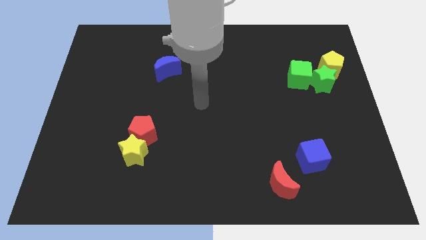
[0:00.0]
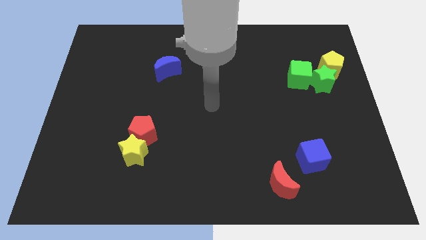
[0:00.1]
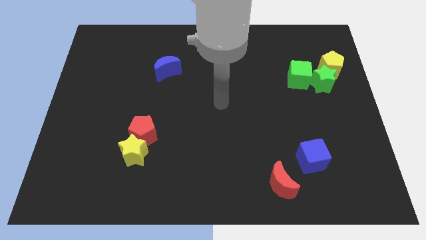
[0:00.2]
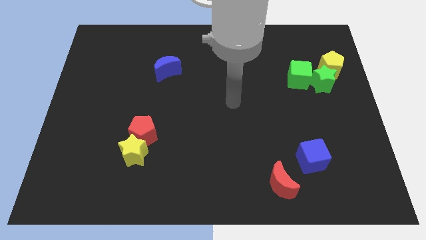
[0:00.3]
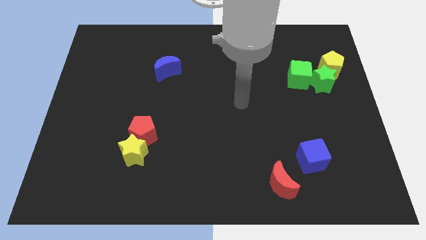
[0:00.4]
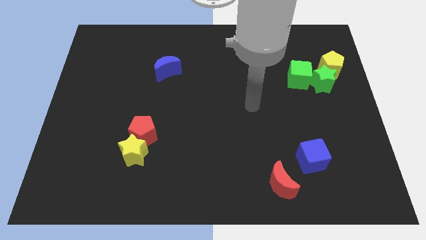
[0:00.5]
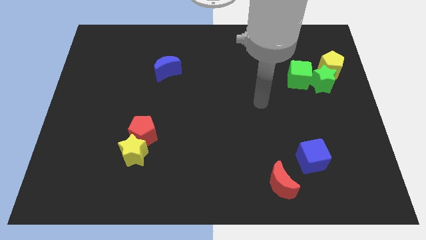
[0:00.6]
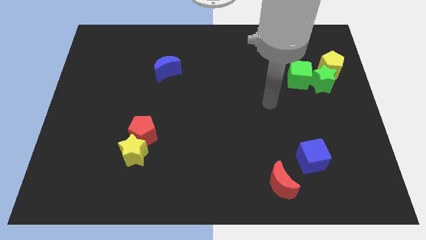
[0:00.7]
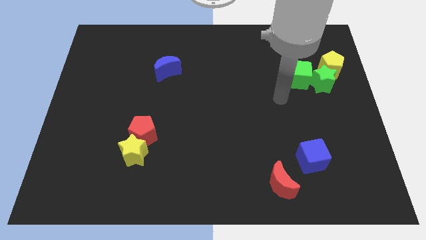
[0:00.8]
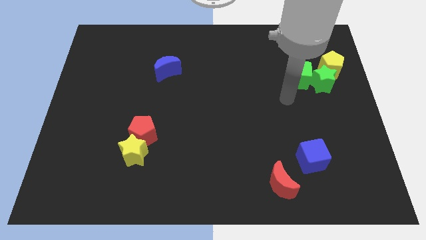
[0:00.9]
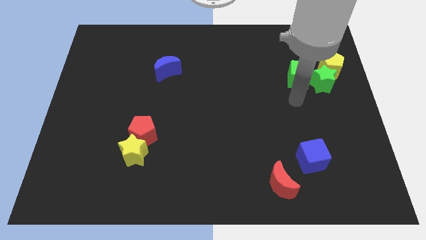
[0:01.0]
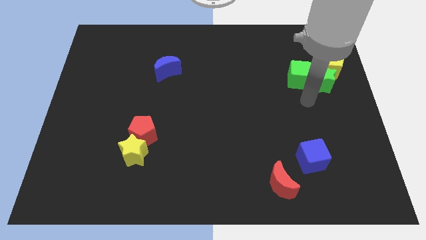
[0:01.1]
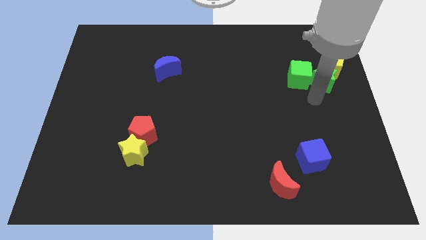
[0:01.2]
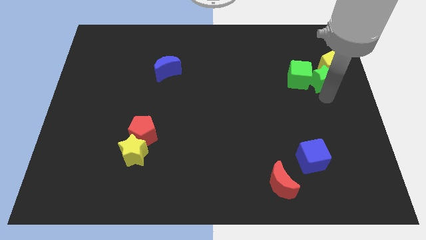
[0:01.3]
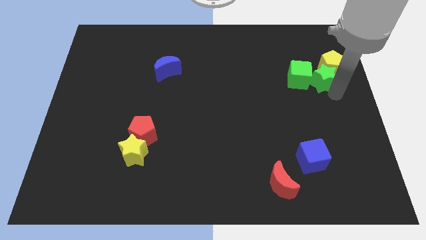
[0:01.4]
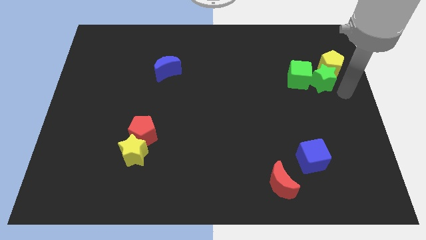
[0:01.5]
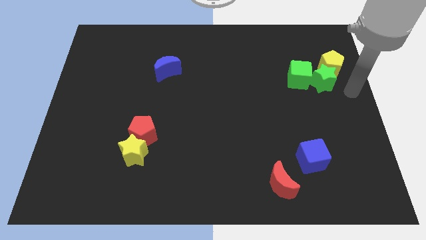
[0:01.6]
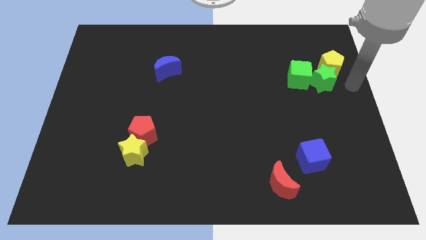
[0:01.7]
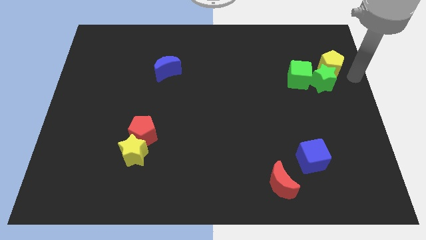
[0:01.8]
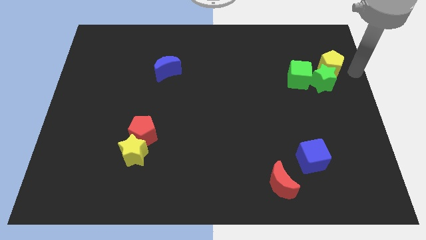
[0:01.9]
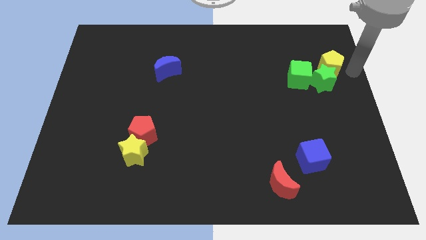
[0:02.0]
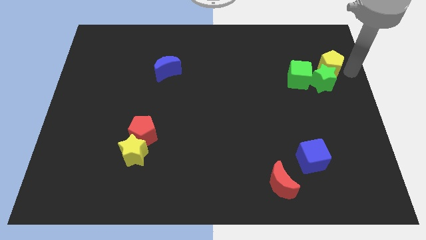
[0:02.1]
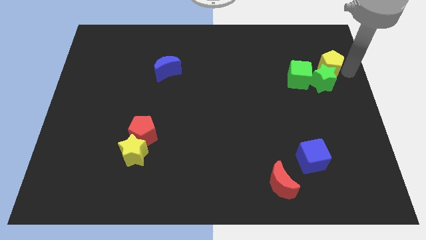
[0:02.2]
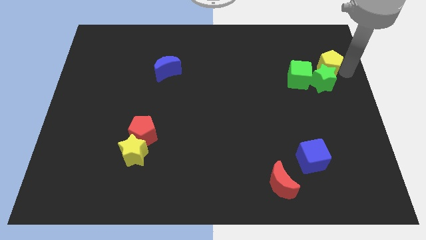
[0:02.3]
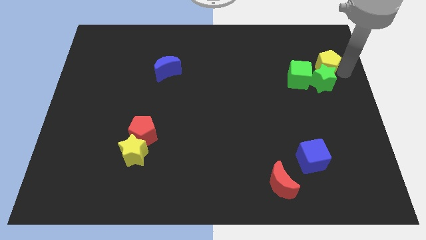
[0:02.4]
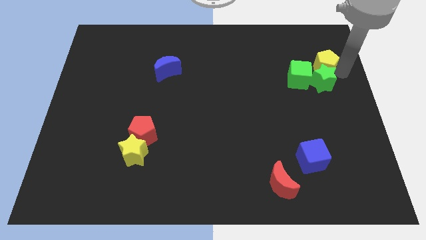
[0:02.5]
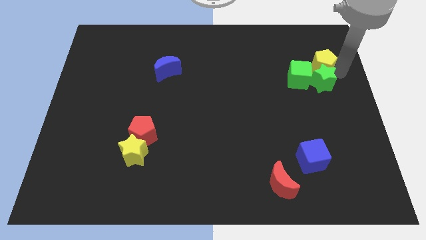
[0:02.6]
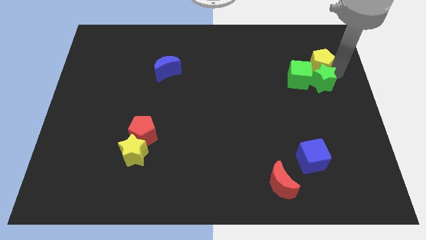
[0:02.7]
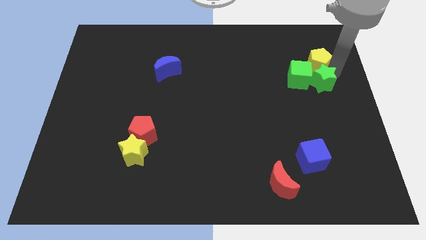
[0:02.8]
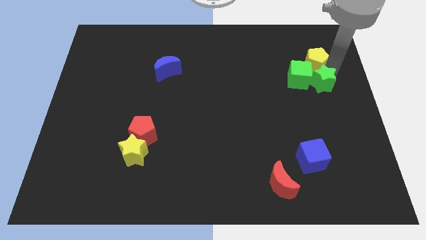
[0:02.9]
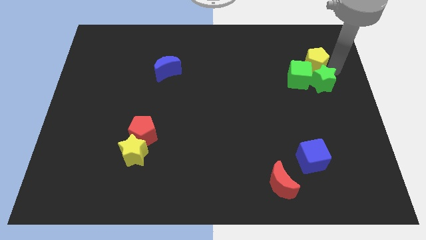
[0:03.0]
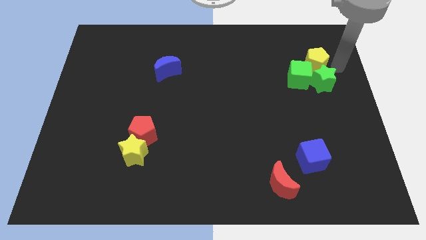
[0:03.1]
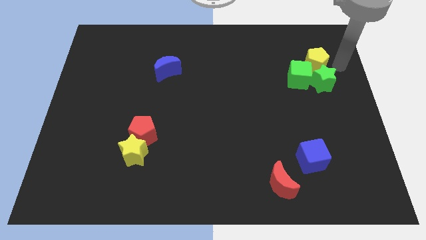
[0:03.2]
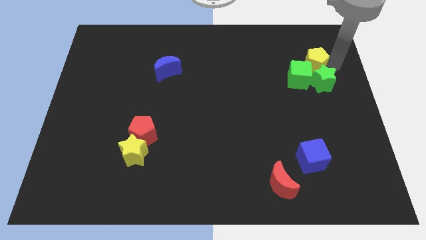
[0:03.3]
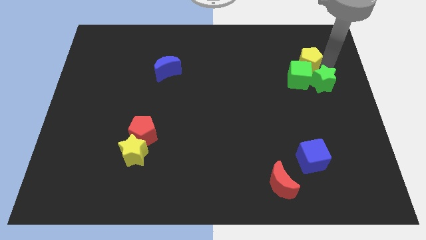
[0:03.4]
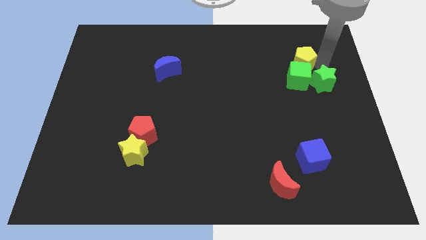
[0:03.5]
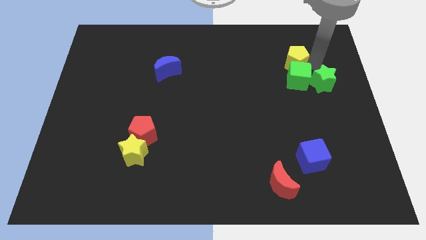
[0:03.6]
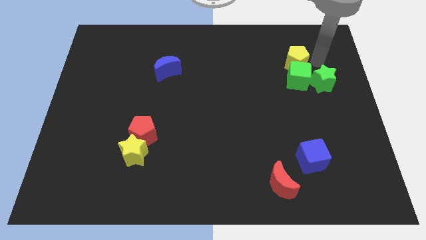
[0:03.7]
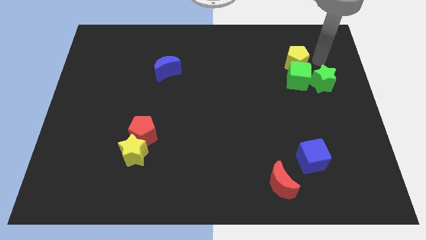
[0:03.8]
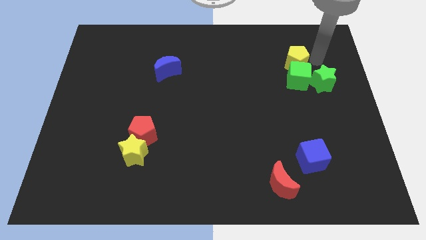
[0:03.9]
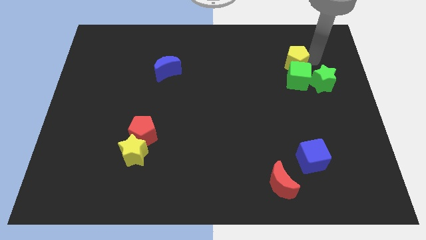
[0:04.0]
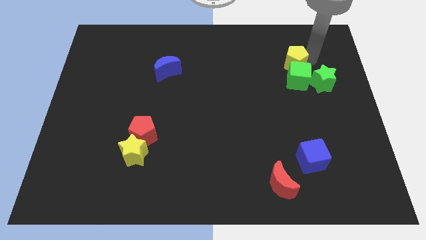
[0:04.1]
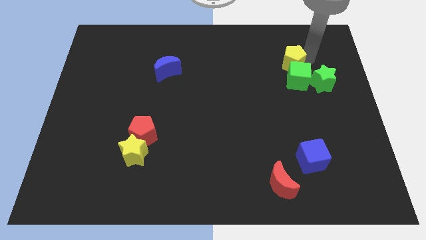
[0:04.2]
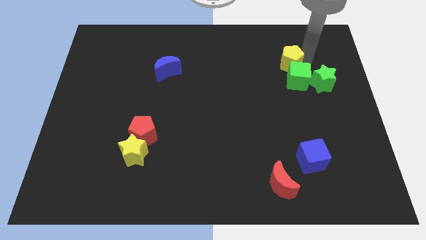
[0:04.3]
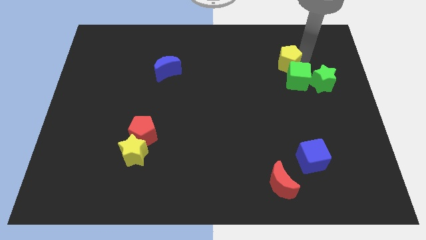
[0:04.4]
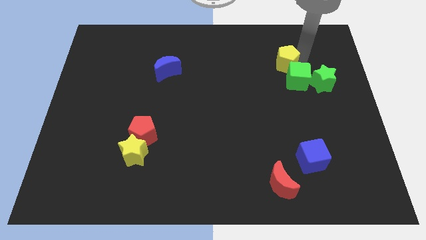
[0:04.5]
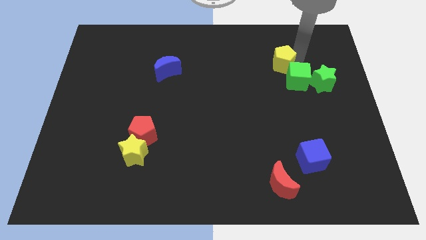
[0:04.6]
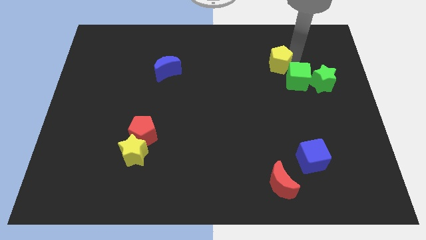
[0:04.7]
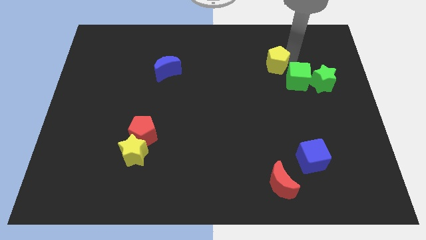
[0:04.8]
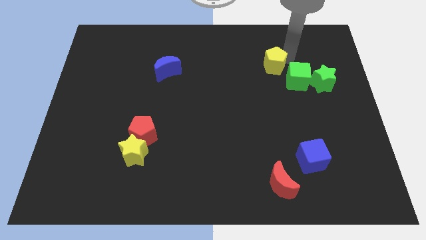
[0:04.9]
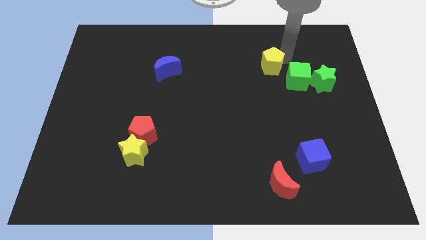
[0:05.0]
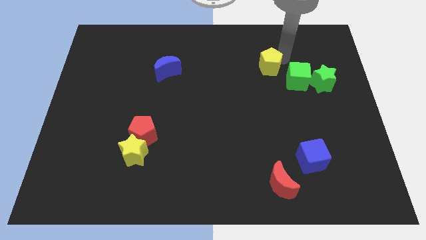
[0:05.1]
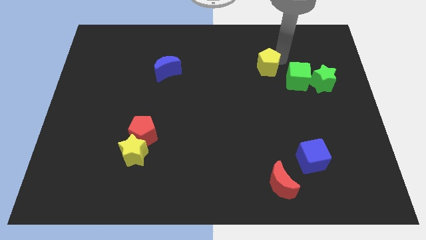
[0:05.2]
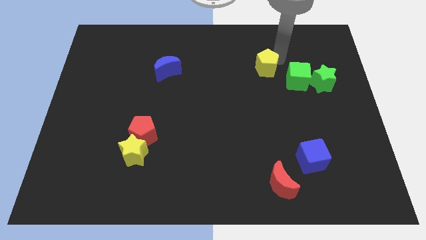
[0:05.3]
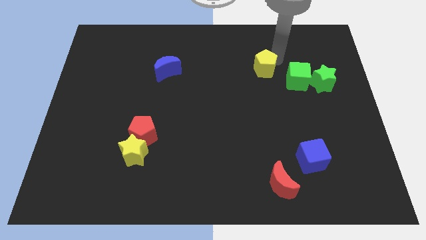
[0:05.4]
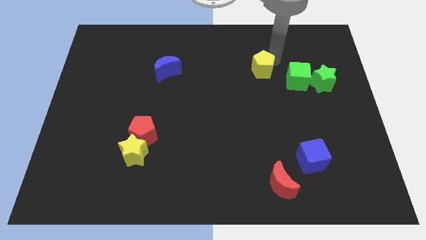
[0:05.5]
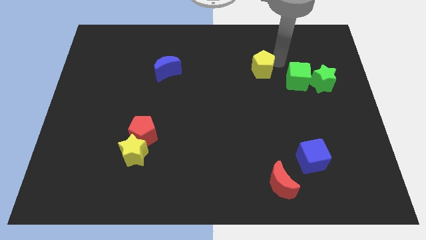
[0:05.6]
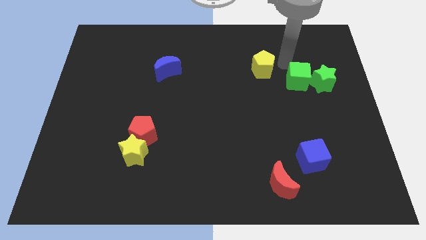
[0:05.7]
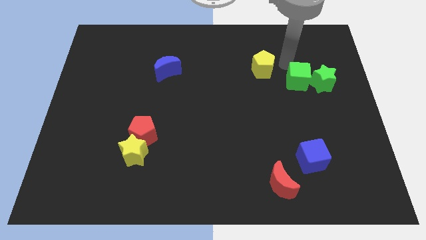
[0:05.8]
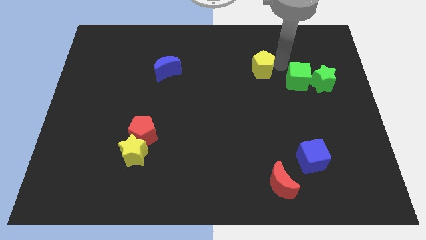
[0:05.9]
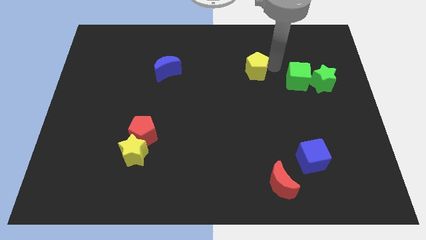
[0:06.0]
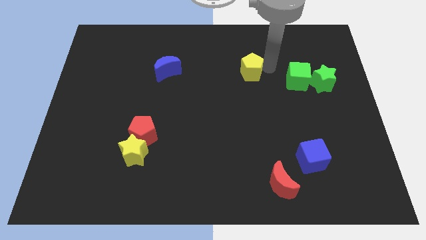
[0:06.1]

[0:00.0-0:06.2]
move the yellow pentagon to the left

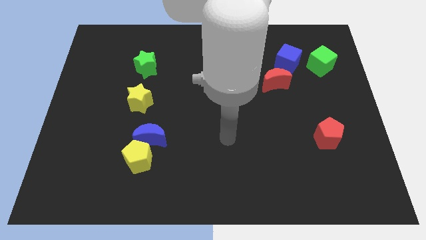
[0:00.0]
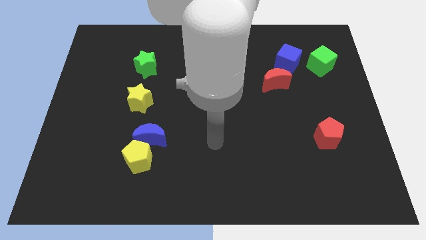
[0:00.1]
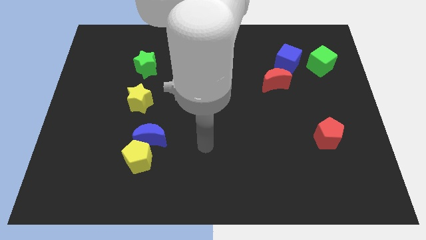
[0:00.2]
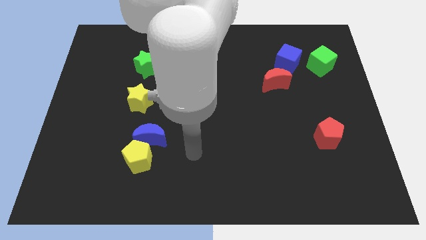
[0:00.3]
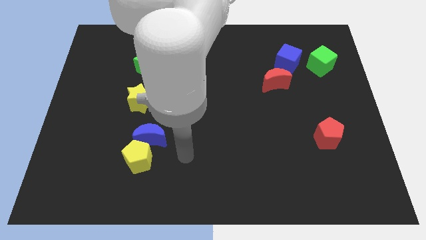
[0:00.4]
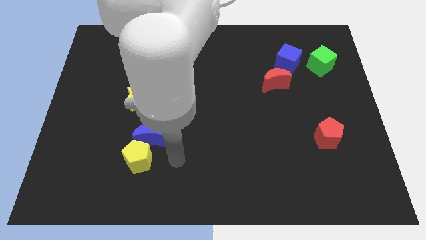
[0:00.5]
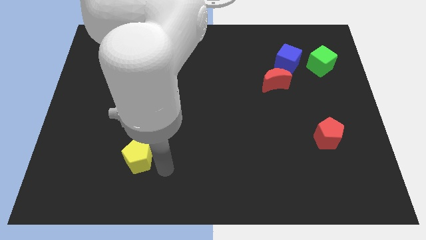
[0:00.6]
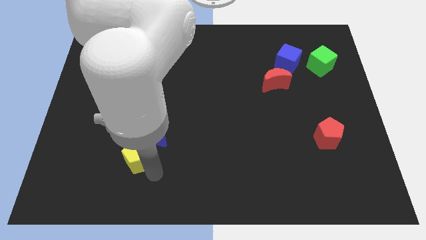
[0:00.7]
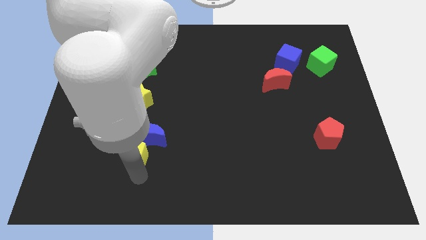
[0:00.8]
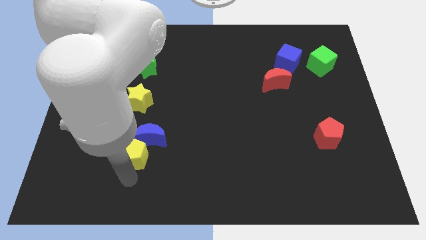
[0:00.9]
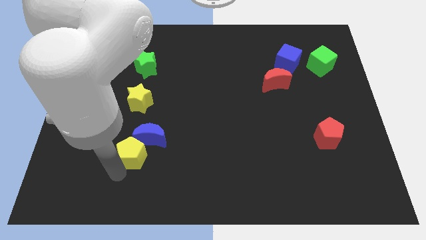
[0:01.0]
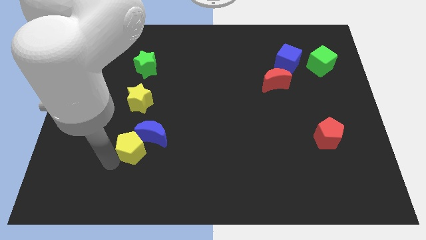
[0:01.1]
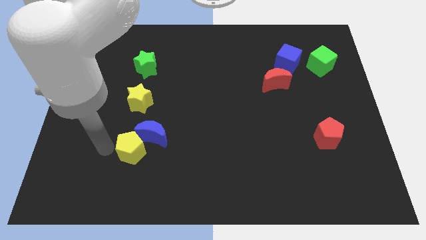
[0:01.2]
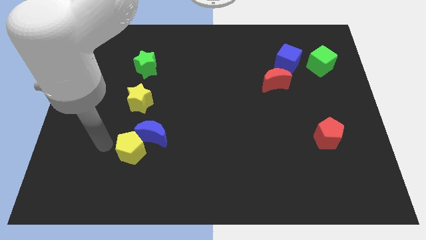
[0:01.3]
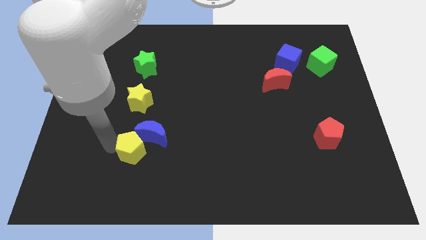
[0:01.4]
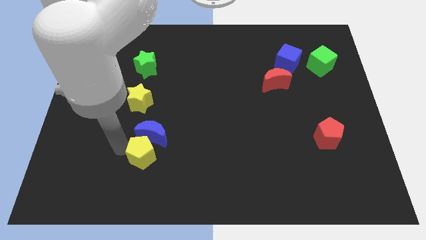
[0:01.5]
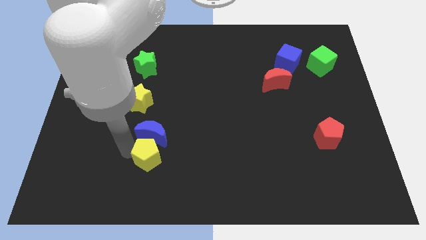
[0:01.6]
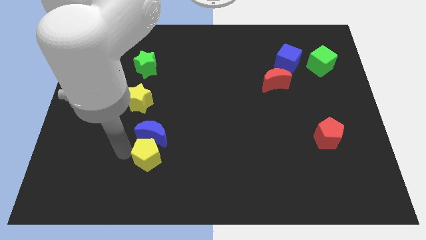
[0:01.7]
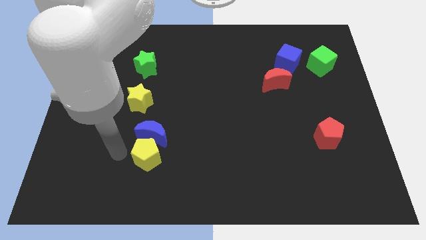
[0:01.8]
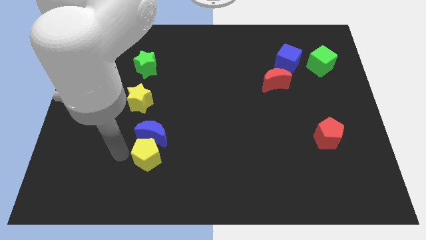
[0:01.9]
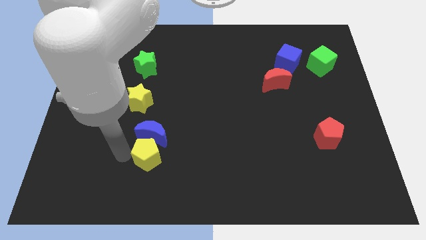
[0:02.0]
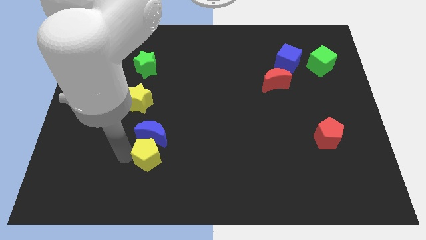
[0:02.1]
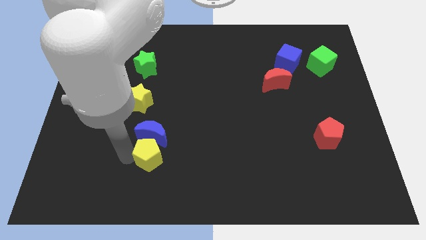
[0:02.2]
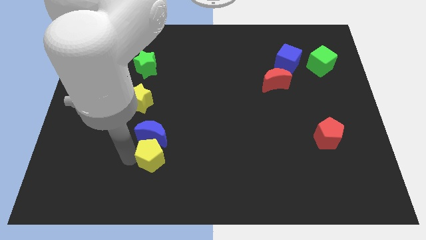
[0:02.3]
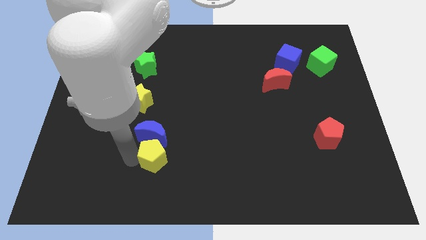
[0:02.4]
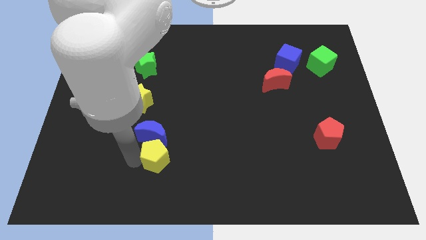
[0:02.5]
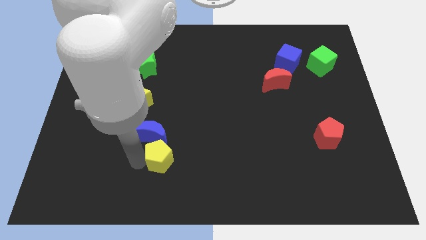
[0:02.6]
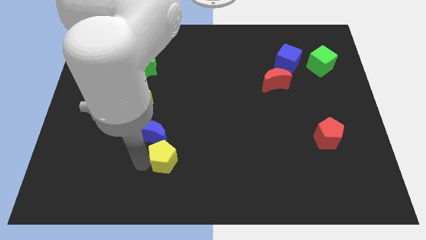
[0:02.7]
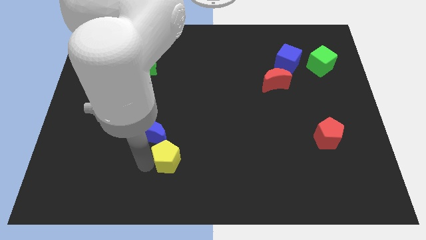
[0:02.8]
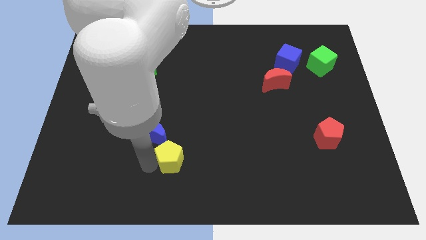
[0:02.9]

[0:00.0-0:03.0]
push the yellow pentagon somewhat to the right
